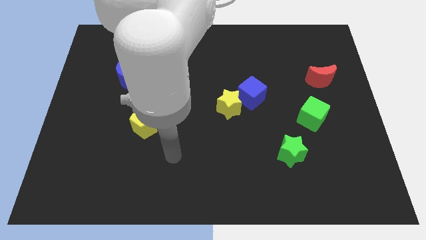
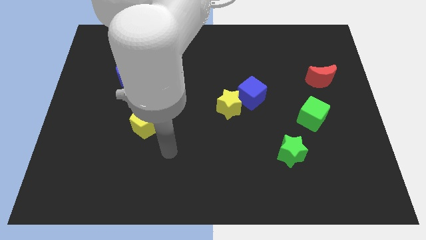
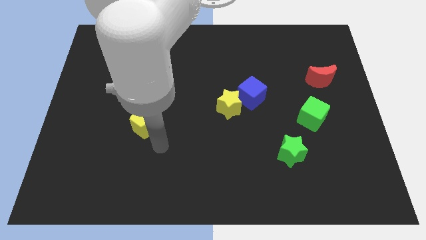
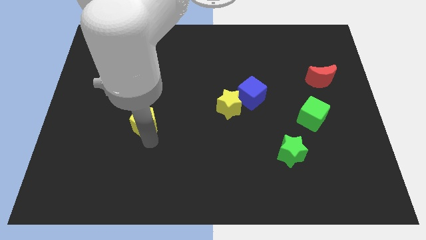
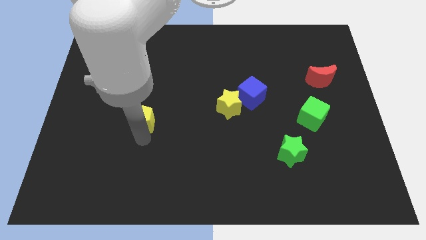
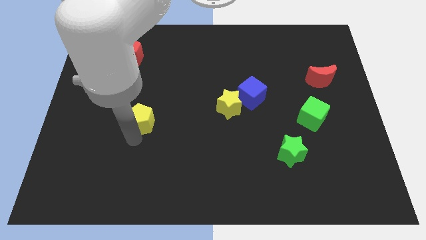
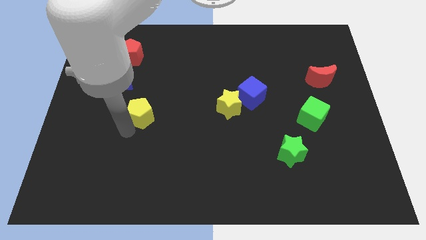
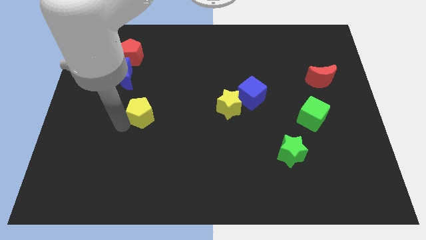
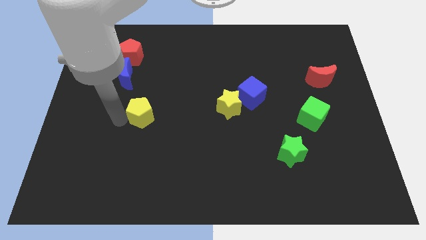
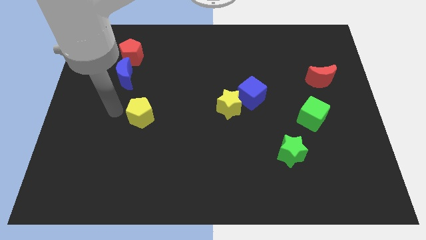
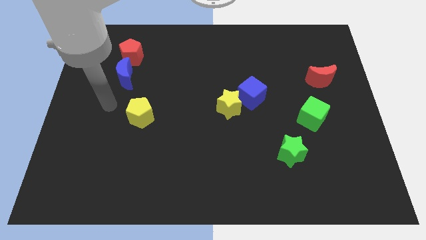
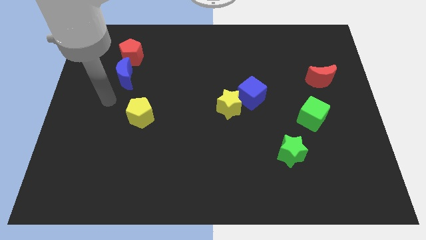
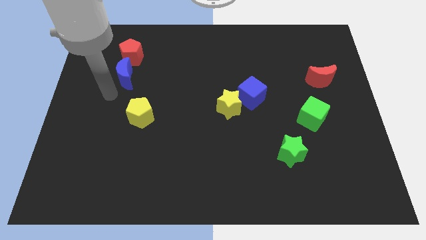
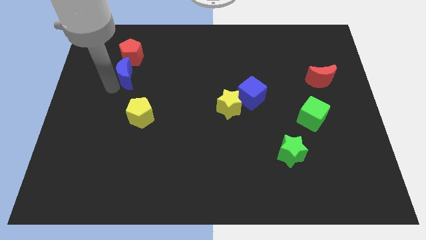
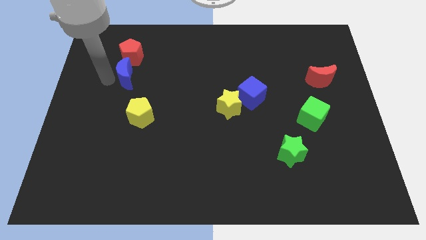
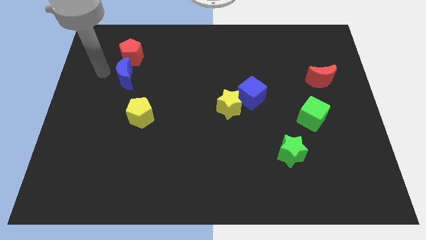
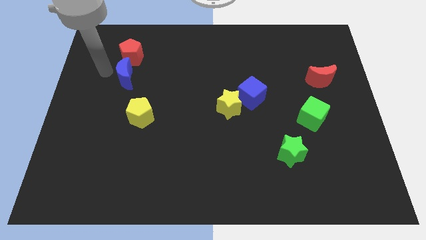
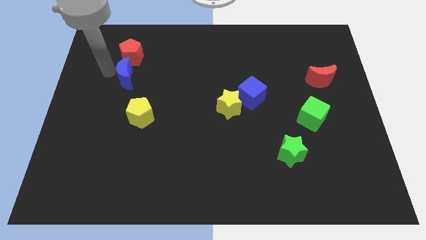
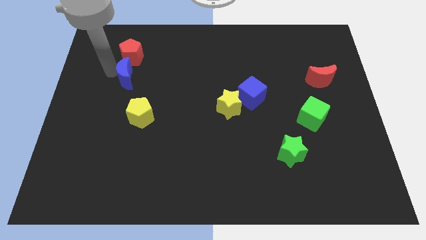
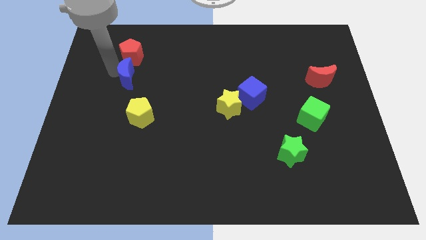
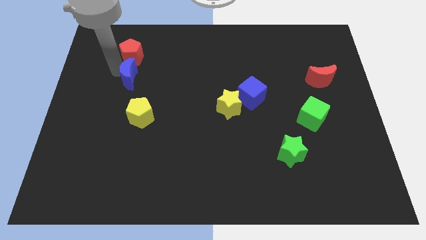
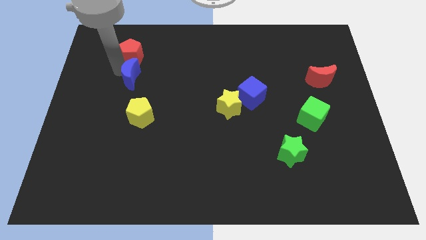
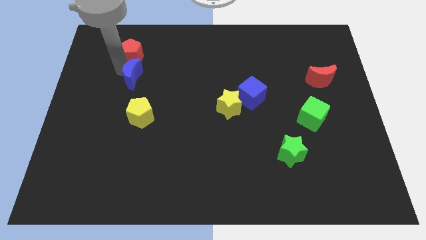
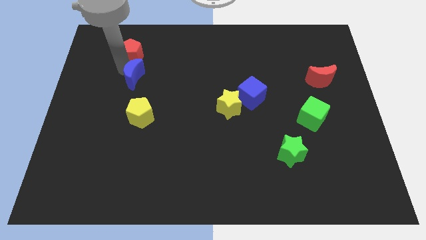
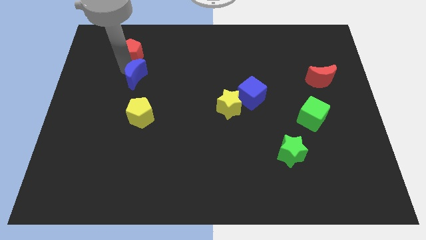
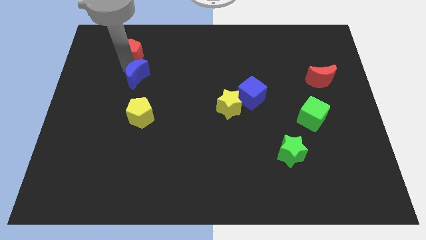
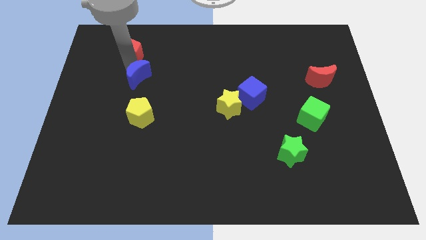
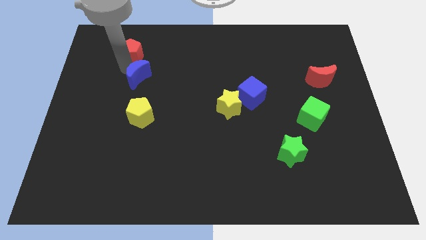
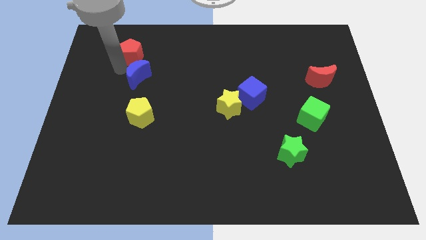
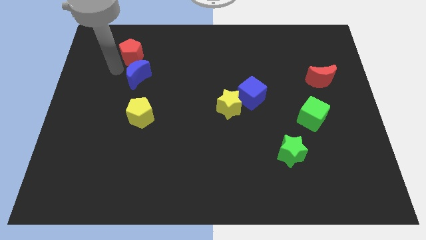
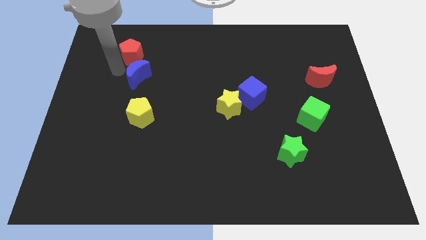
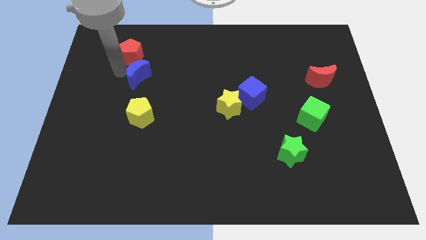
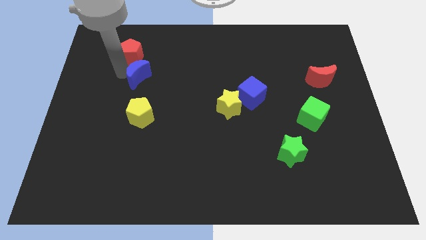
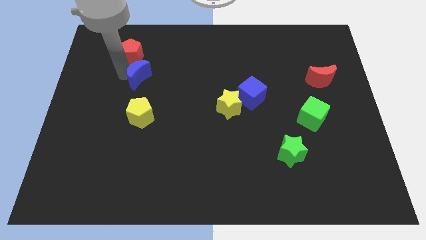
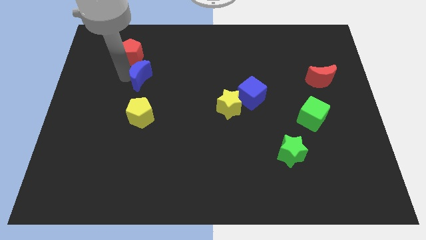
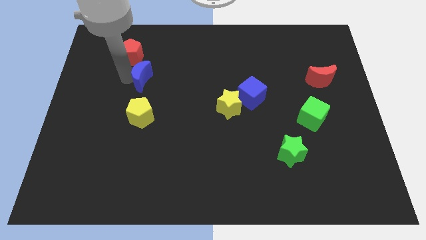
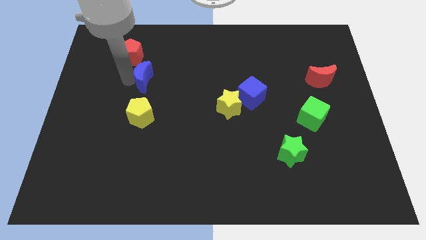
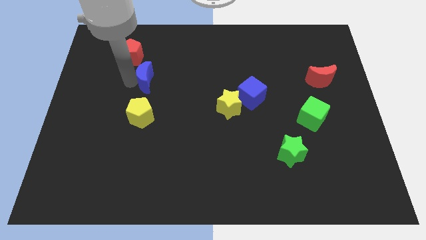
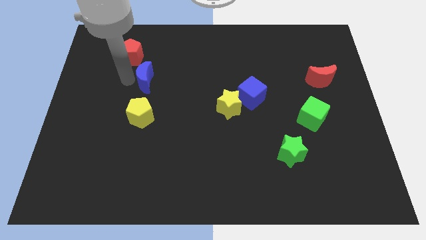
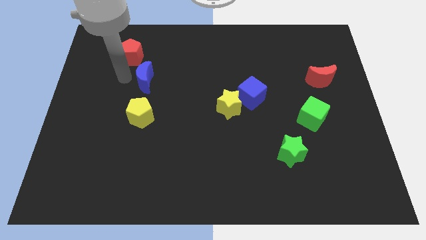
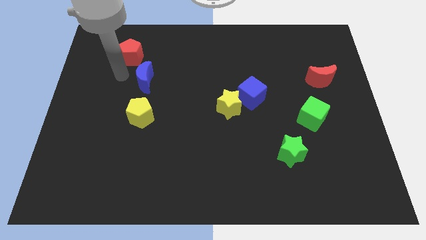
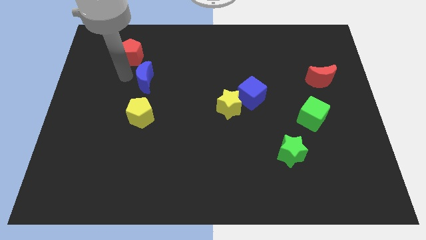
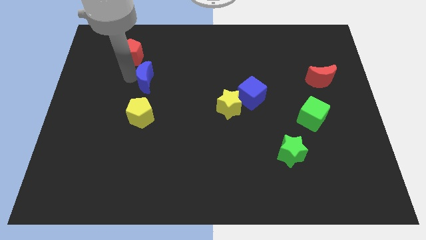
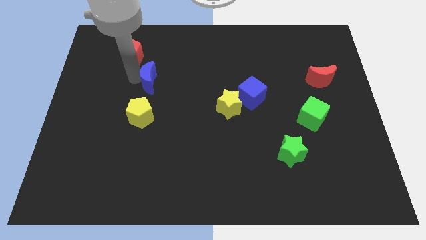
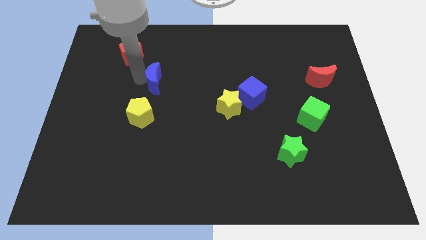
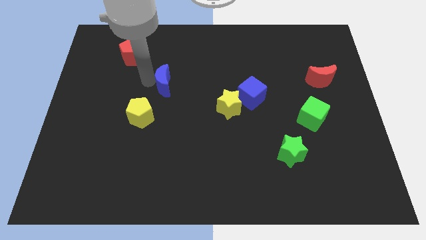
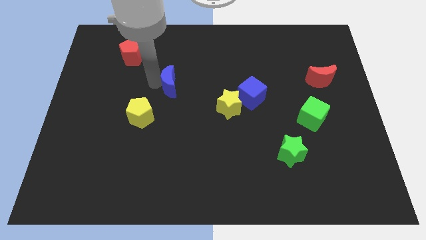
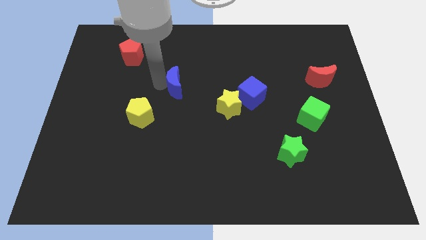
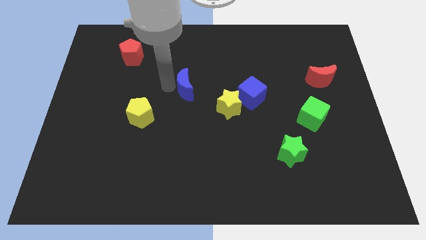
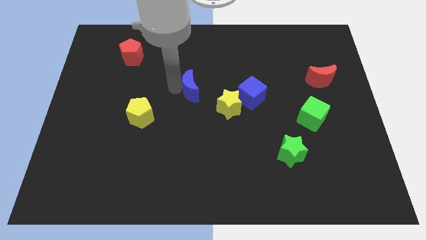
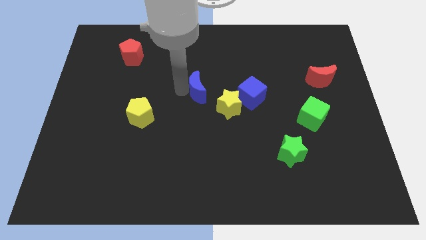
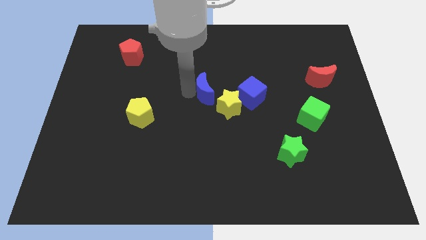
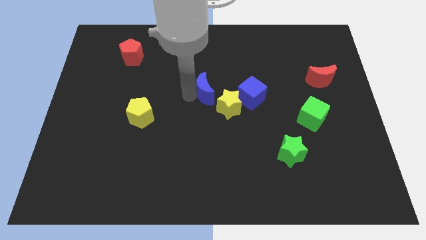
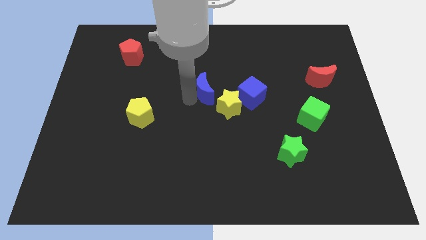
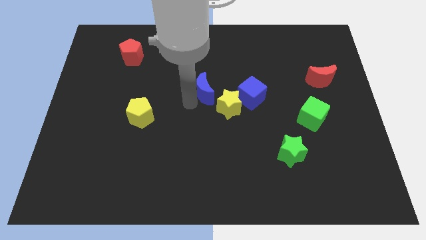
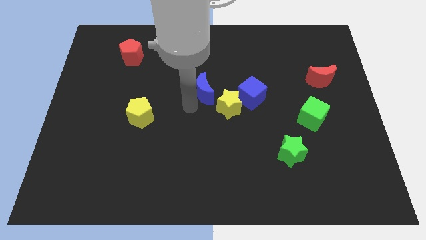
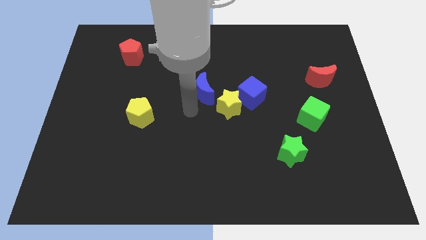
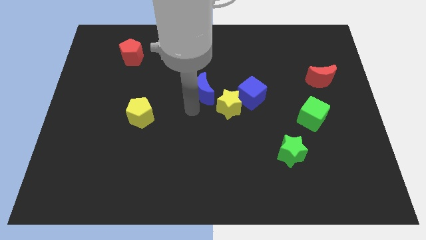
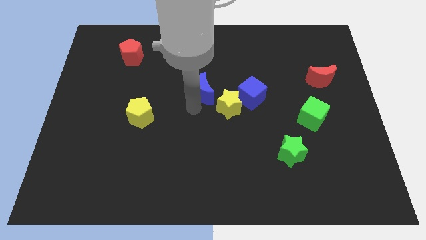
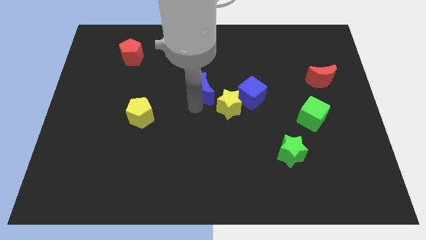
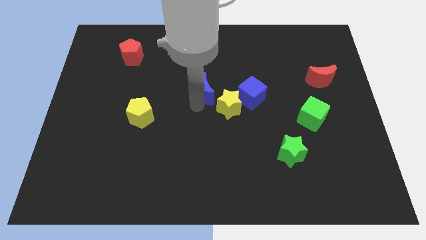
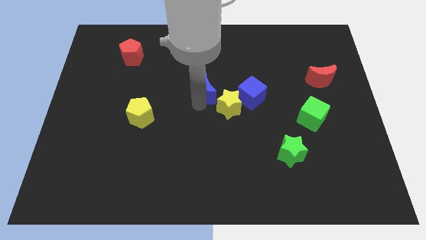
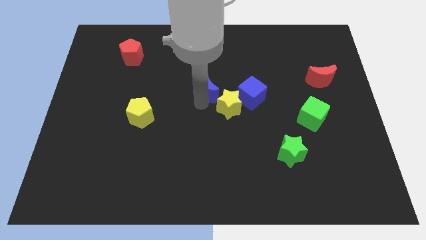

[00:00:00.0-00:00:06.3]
slide the blue moon right

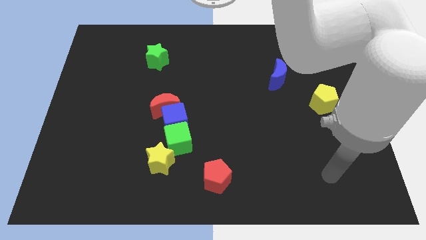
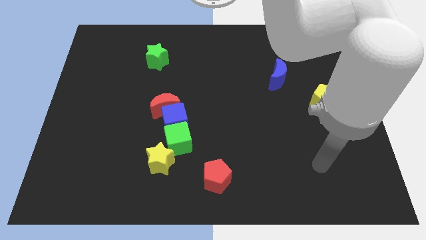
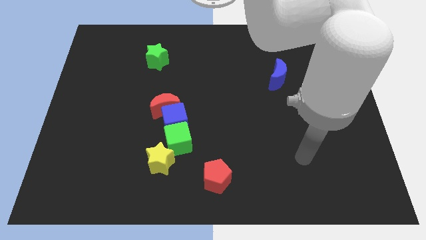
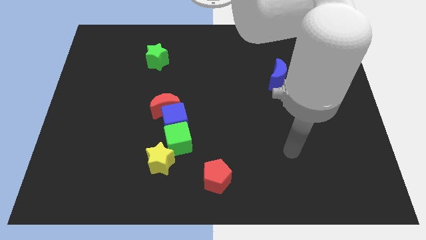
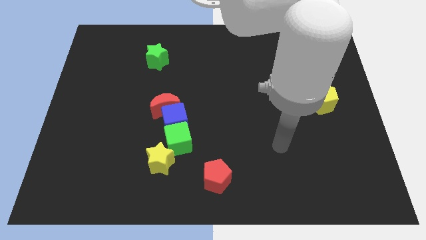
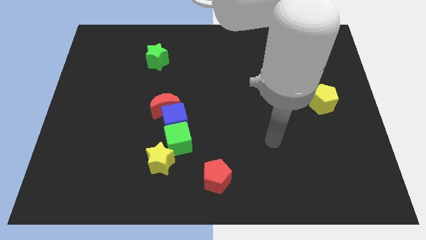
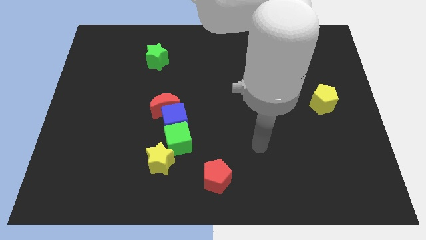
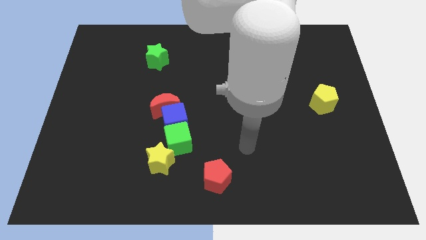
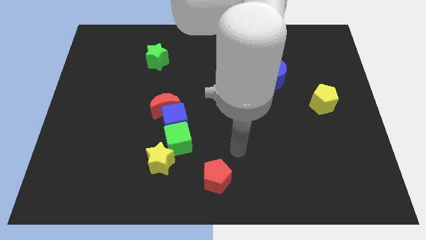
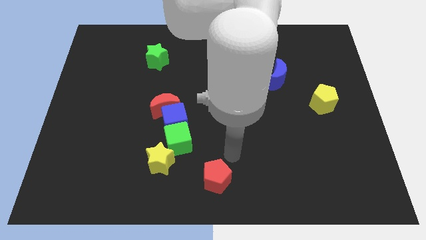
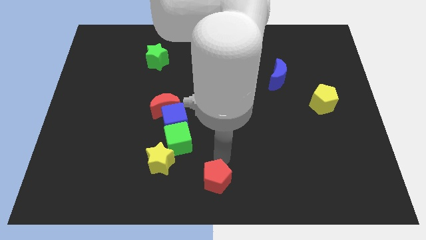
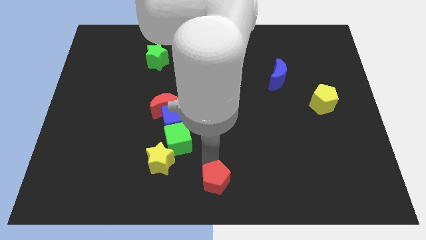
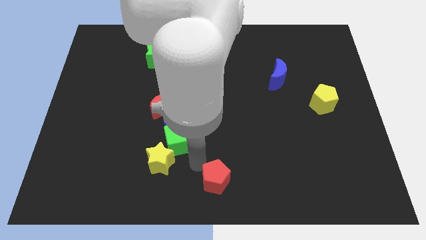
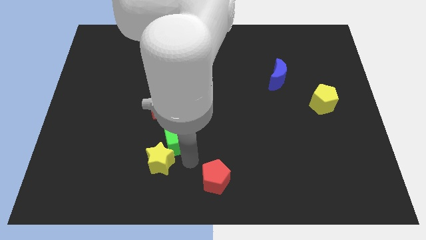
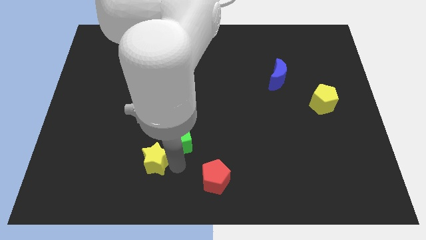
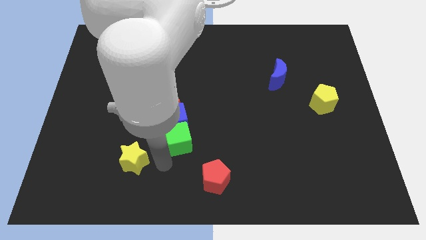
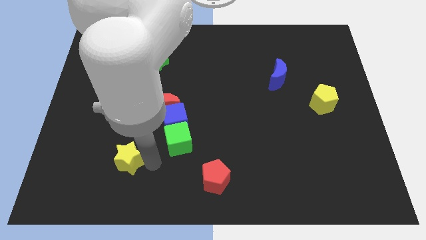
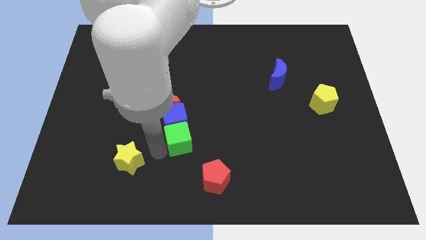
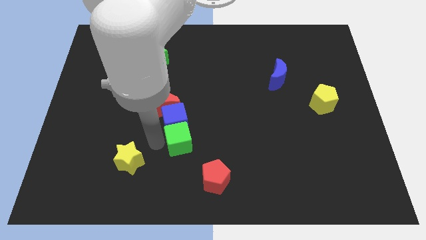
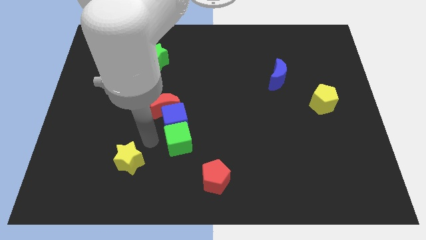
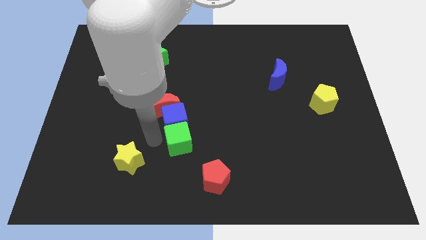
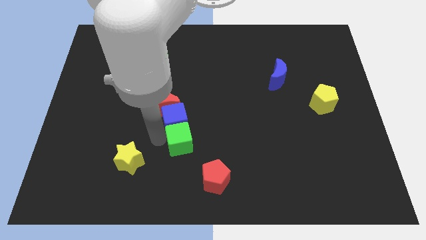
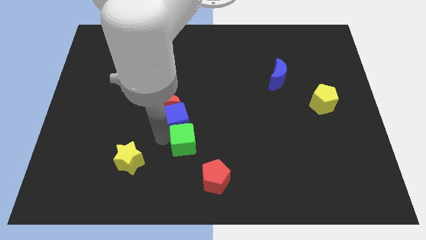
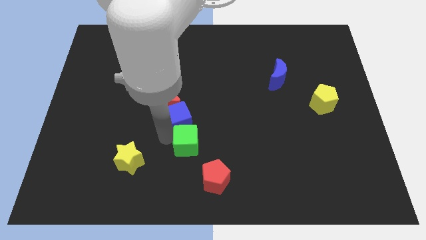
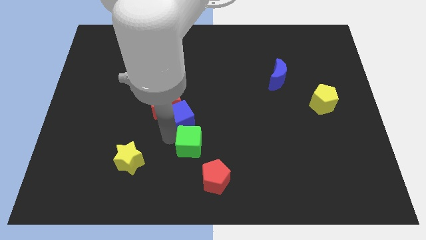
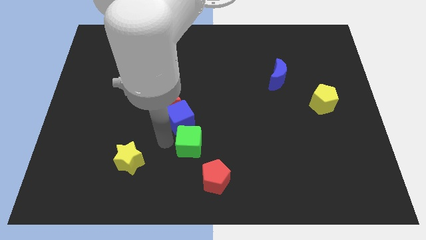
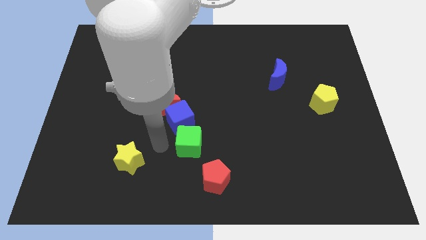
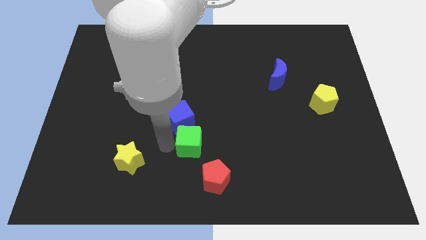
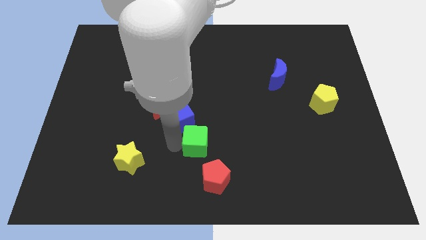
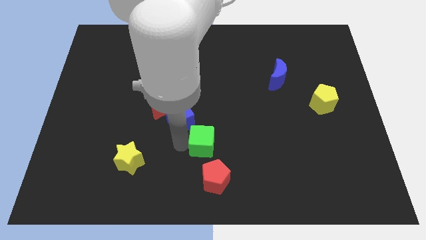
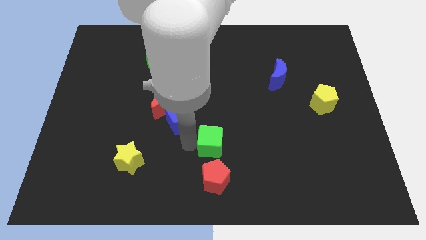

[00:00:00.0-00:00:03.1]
slightly slide the green cube to the right
